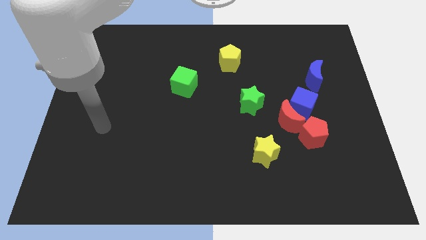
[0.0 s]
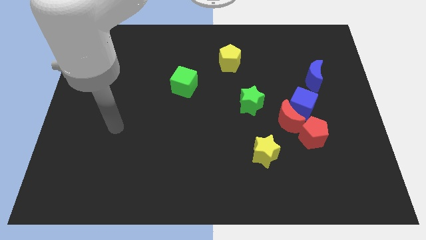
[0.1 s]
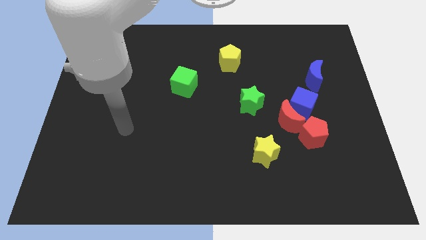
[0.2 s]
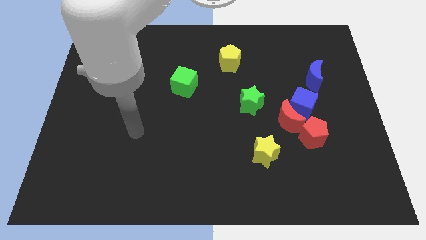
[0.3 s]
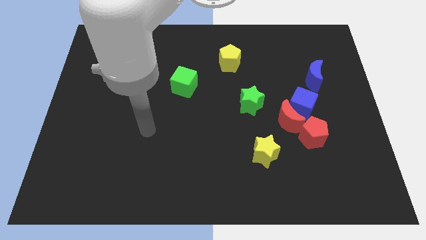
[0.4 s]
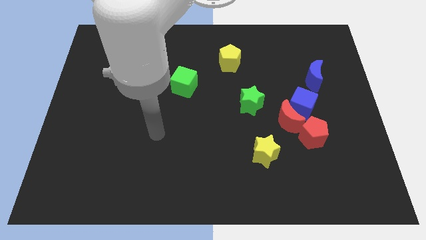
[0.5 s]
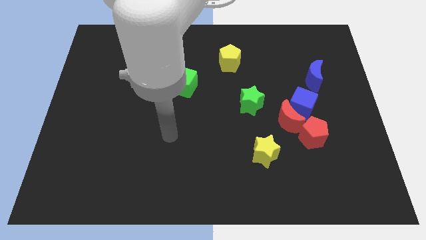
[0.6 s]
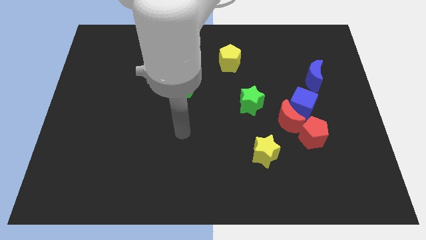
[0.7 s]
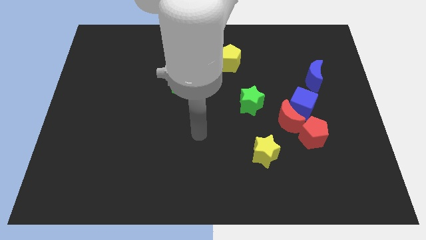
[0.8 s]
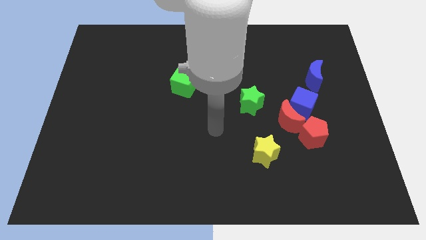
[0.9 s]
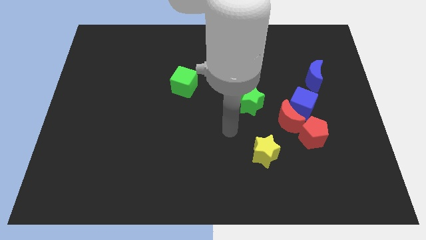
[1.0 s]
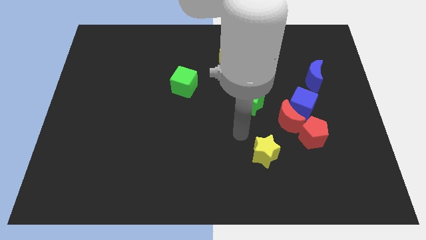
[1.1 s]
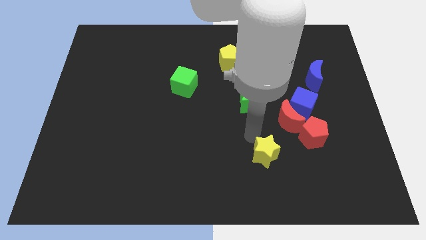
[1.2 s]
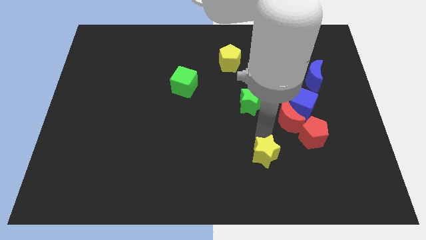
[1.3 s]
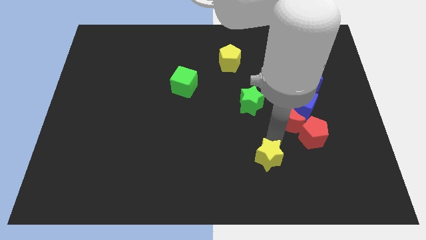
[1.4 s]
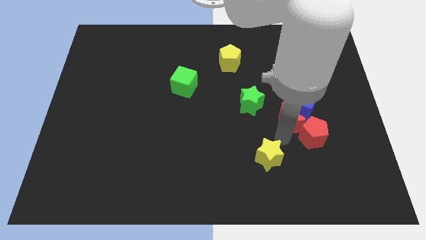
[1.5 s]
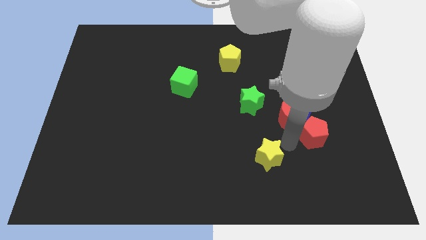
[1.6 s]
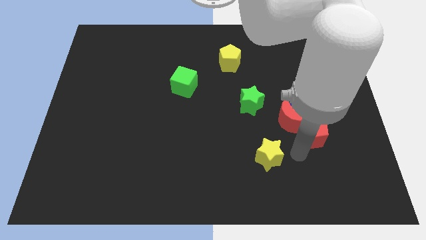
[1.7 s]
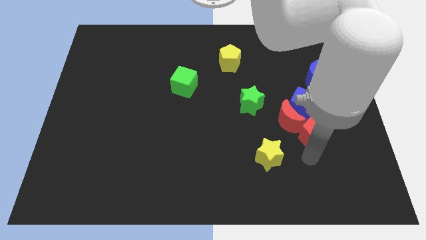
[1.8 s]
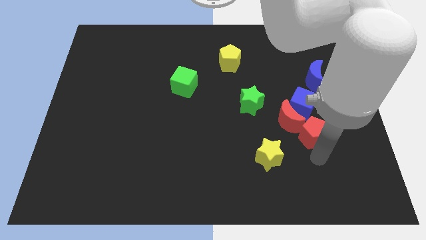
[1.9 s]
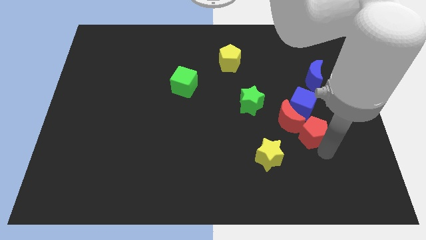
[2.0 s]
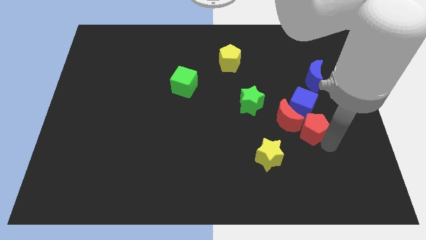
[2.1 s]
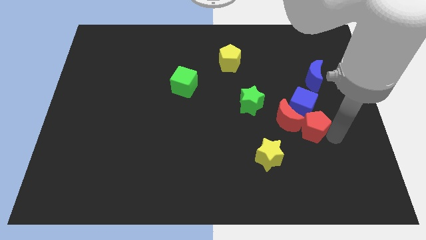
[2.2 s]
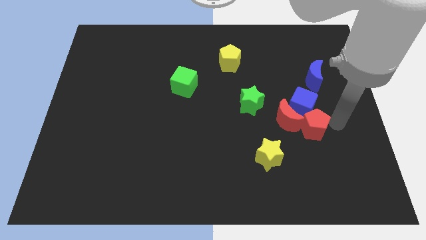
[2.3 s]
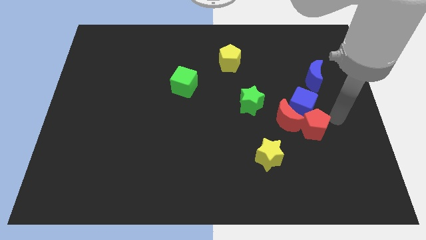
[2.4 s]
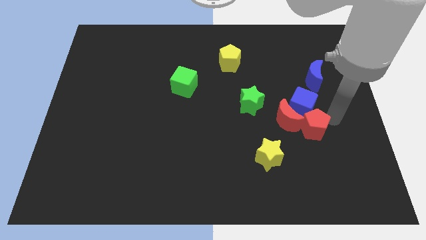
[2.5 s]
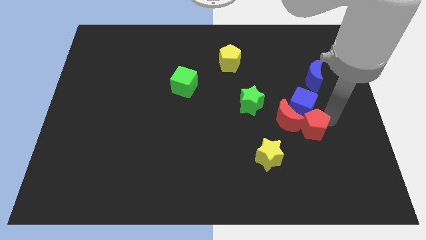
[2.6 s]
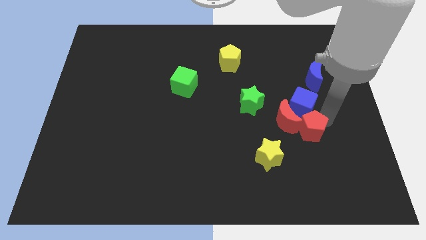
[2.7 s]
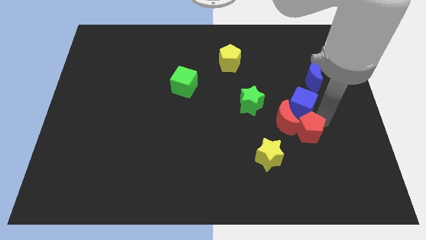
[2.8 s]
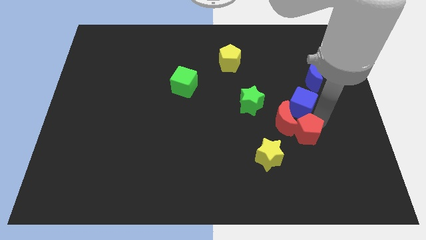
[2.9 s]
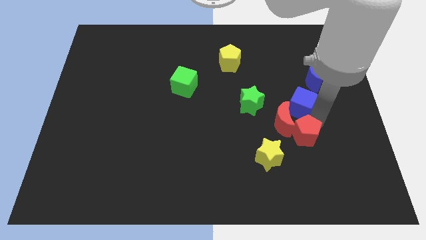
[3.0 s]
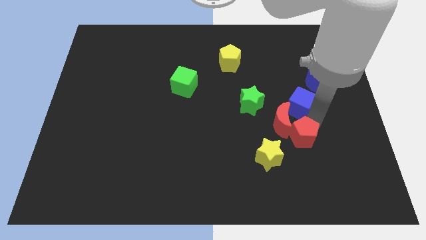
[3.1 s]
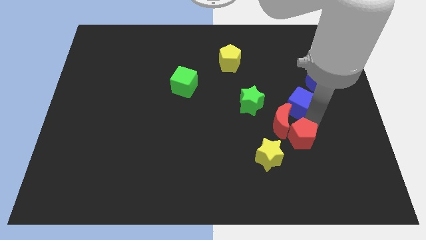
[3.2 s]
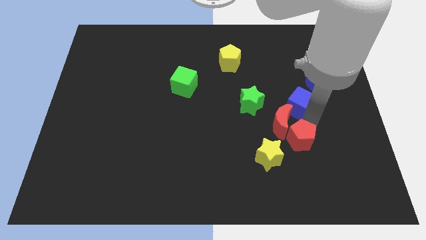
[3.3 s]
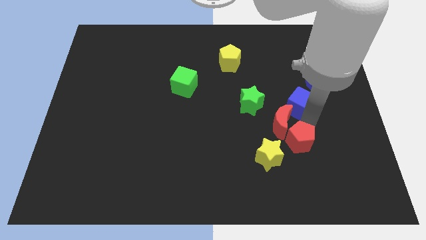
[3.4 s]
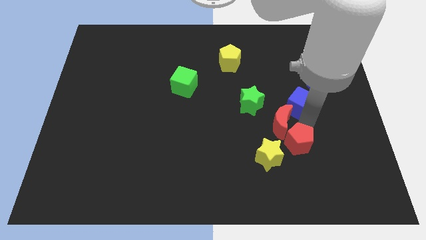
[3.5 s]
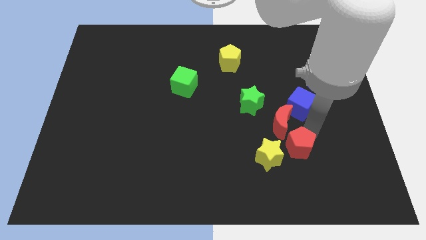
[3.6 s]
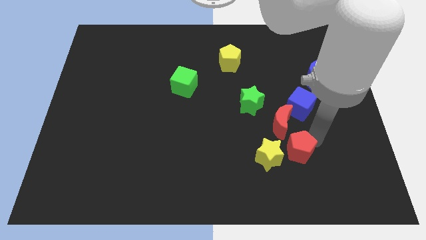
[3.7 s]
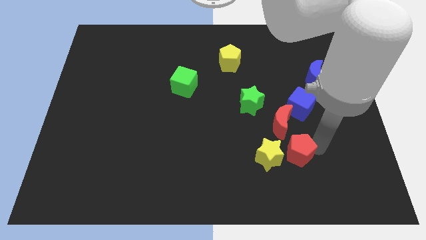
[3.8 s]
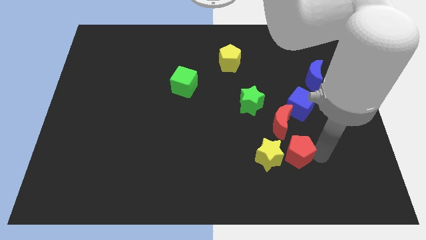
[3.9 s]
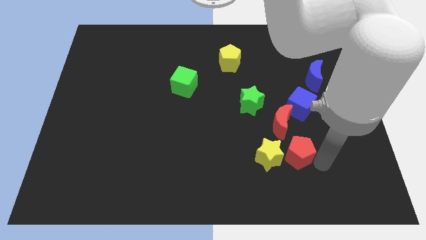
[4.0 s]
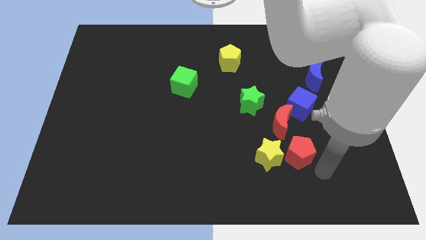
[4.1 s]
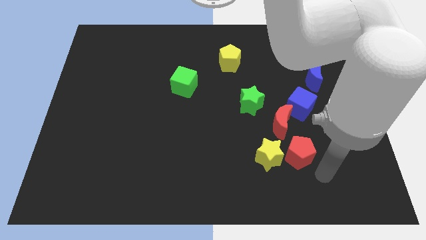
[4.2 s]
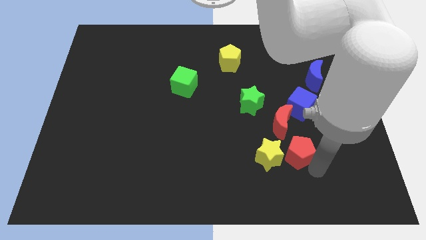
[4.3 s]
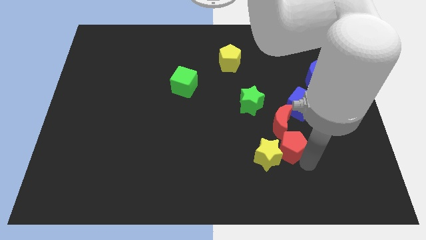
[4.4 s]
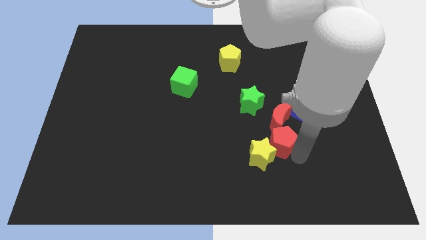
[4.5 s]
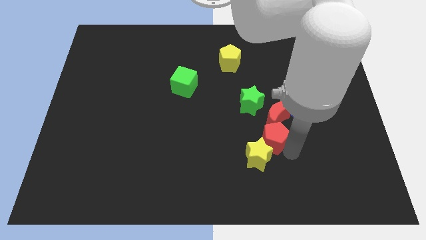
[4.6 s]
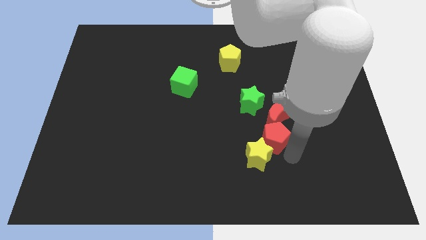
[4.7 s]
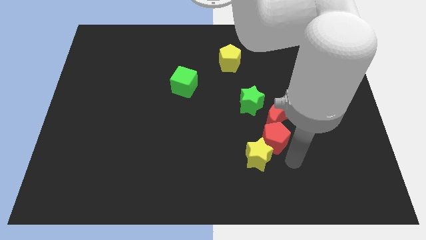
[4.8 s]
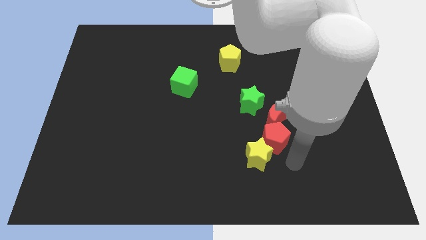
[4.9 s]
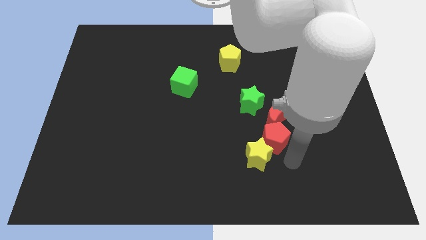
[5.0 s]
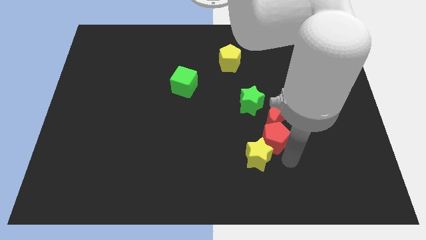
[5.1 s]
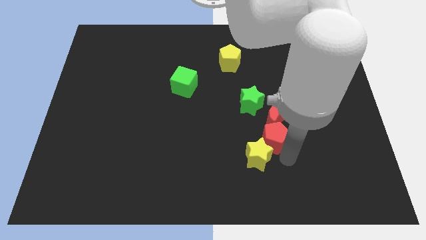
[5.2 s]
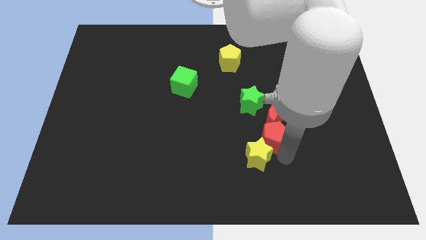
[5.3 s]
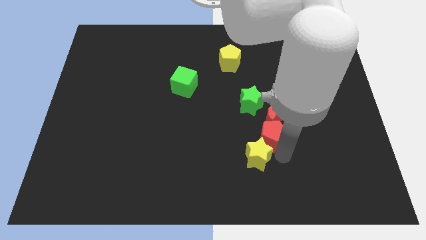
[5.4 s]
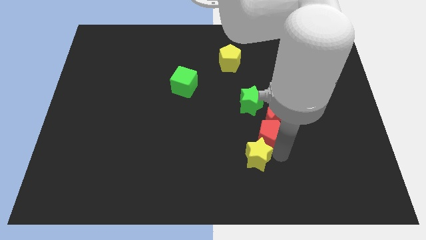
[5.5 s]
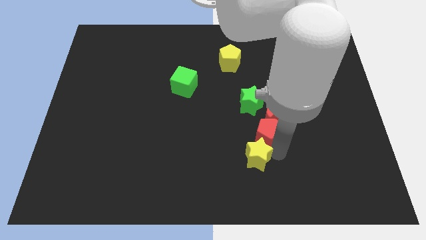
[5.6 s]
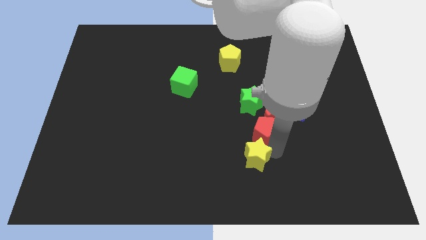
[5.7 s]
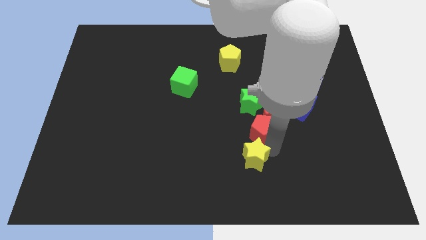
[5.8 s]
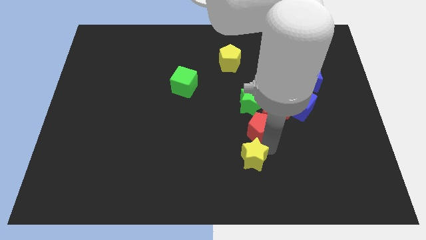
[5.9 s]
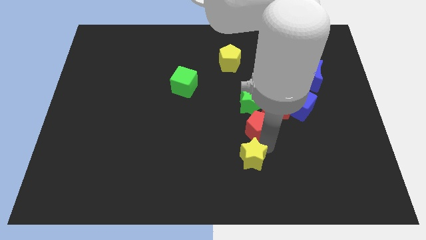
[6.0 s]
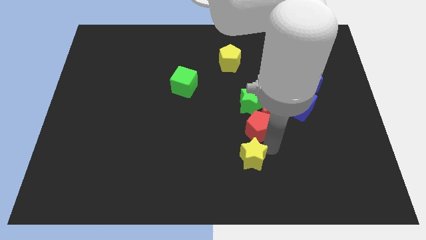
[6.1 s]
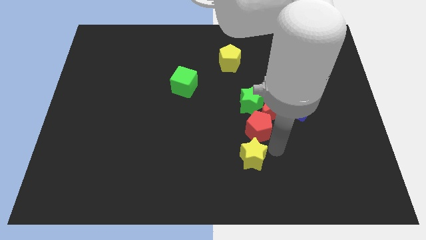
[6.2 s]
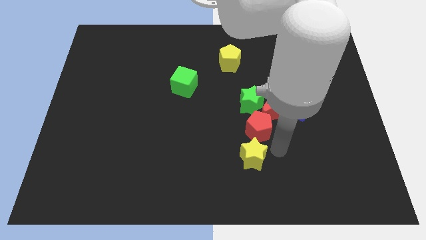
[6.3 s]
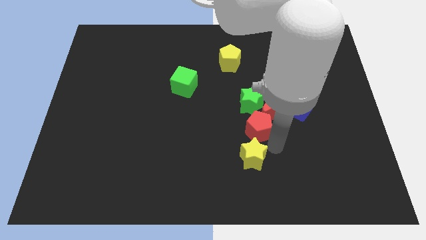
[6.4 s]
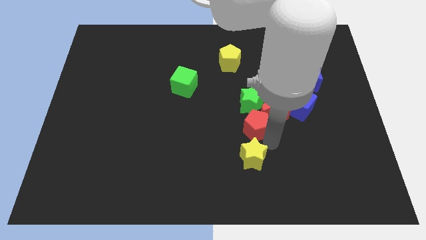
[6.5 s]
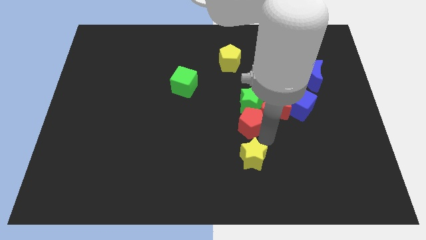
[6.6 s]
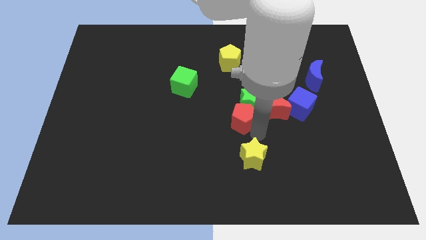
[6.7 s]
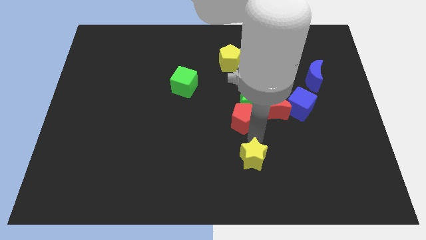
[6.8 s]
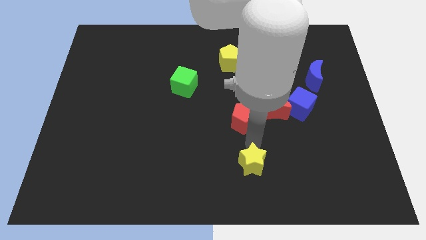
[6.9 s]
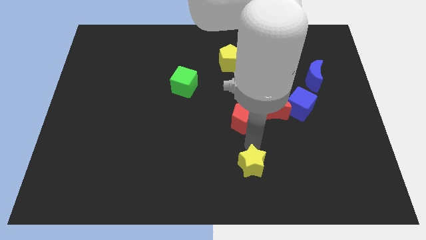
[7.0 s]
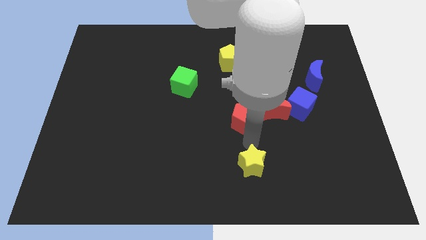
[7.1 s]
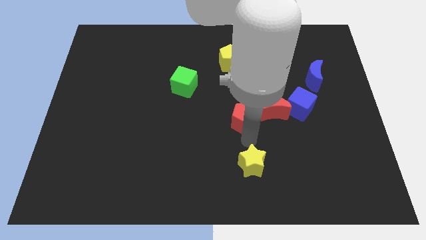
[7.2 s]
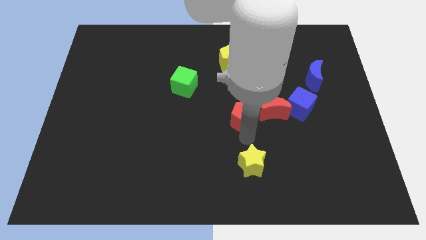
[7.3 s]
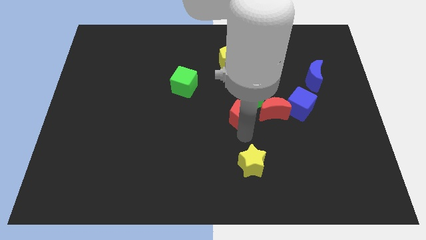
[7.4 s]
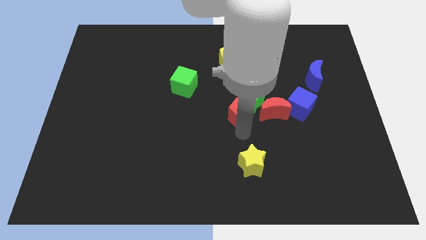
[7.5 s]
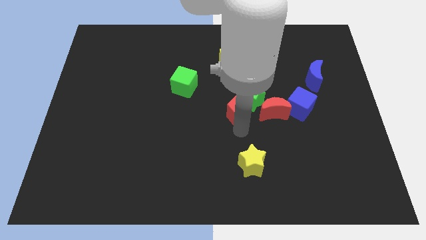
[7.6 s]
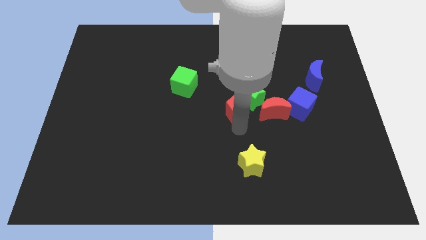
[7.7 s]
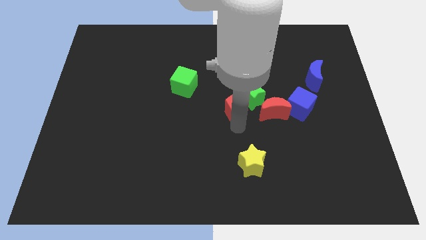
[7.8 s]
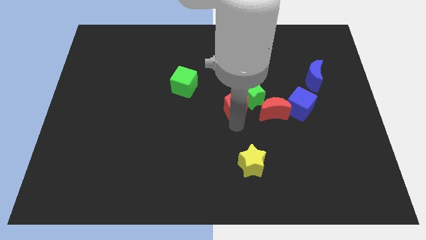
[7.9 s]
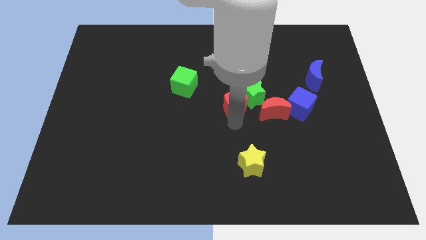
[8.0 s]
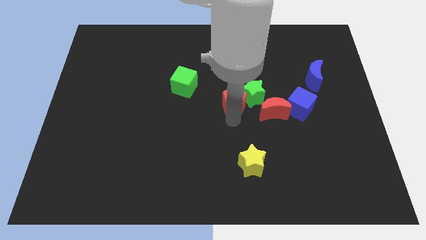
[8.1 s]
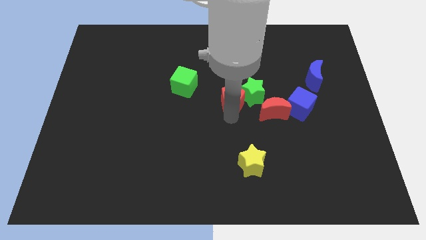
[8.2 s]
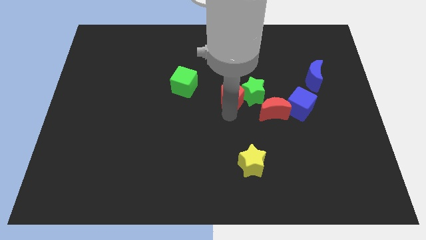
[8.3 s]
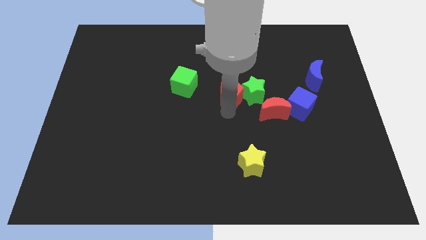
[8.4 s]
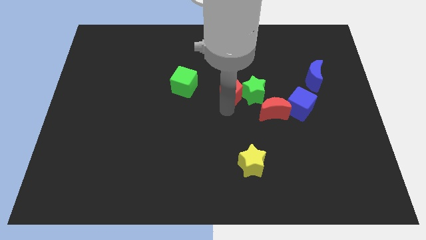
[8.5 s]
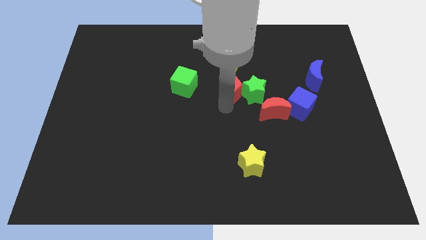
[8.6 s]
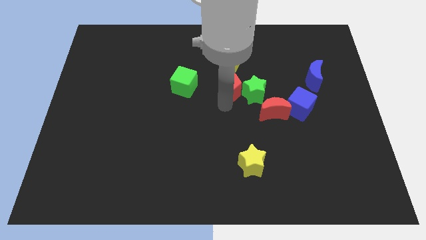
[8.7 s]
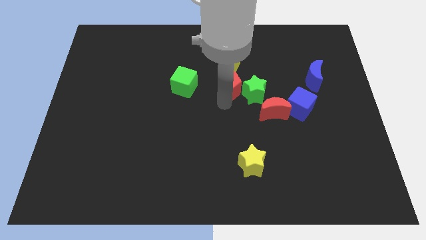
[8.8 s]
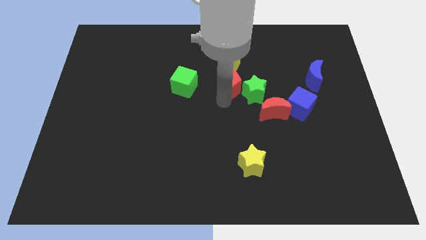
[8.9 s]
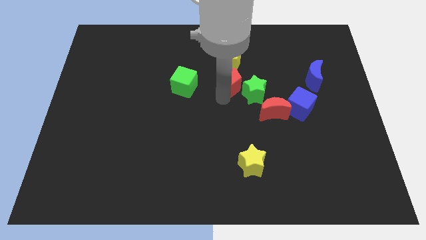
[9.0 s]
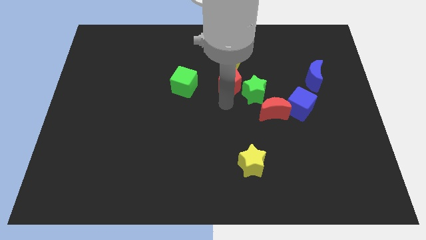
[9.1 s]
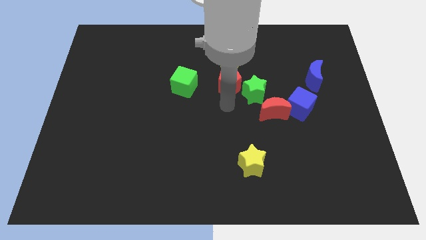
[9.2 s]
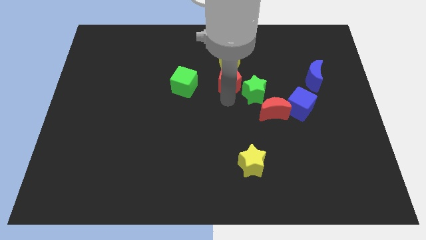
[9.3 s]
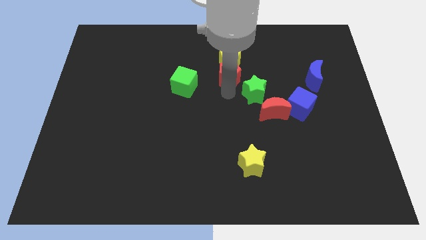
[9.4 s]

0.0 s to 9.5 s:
push the red pentagon close to the yellow pentagon
